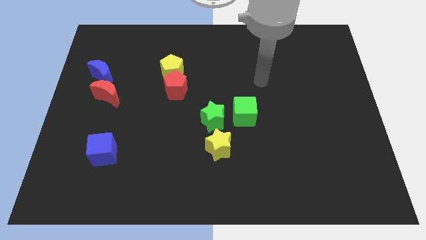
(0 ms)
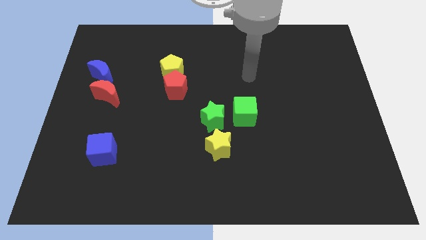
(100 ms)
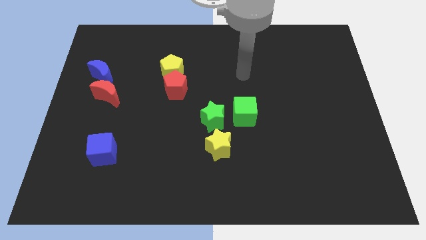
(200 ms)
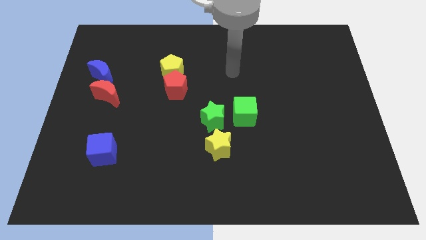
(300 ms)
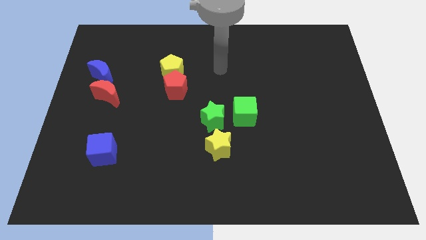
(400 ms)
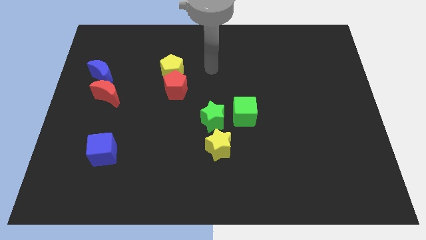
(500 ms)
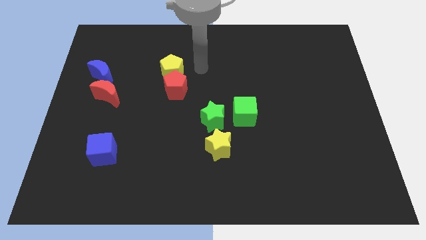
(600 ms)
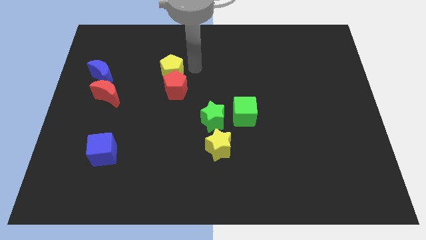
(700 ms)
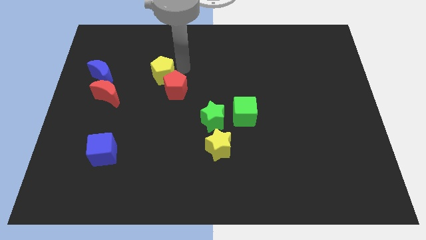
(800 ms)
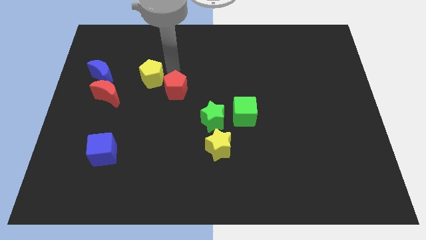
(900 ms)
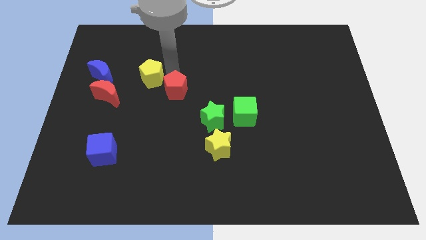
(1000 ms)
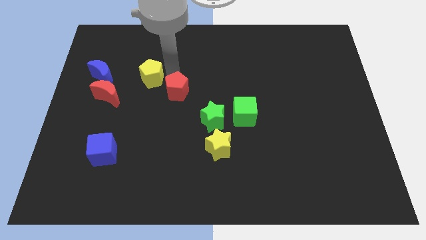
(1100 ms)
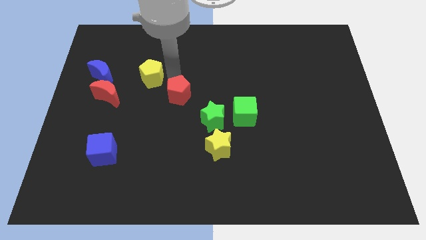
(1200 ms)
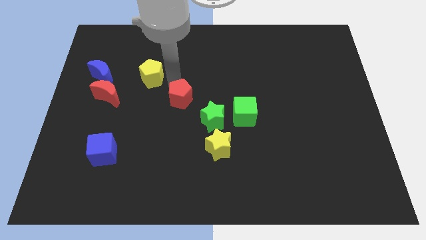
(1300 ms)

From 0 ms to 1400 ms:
move the red pentagon away from the yellow pentagon

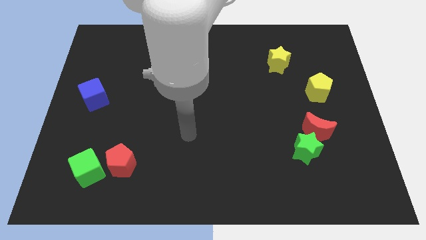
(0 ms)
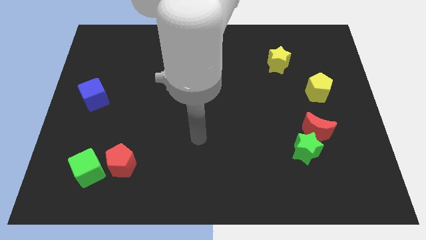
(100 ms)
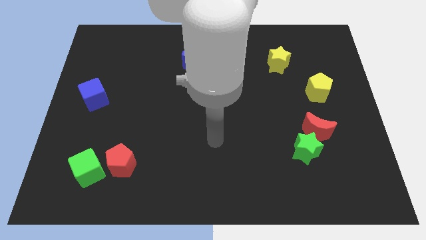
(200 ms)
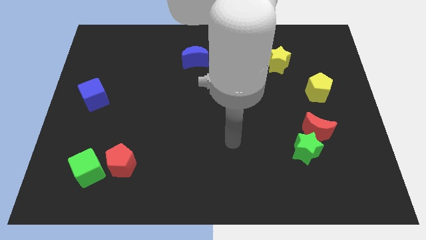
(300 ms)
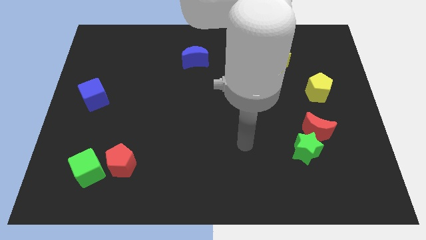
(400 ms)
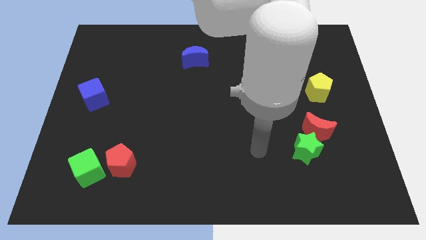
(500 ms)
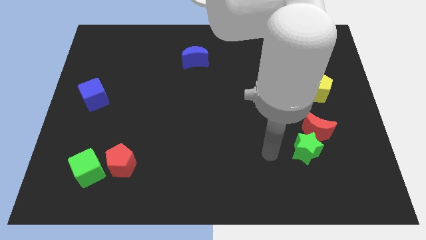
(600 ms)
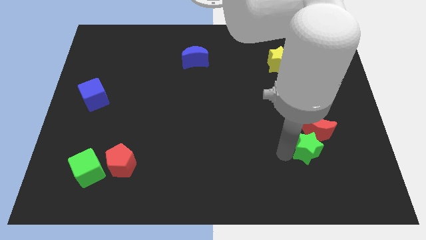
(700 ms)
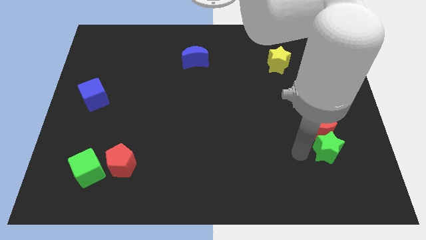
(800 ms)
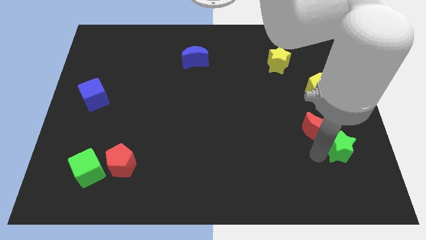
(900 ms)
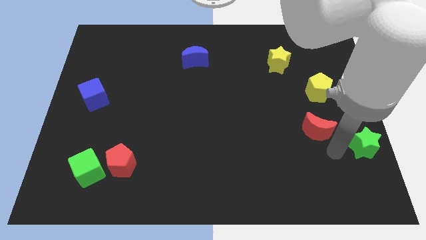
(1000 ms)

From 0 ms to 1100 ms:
separate the red moon from the green star

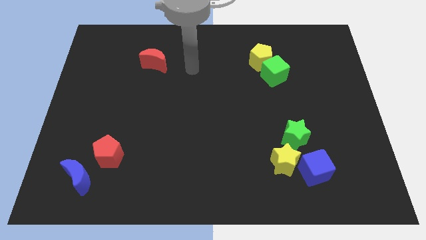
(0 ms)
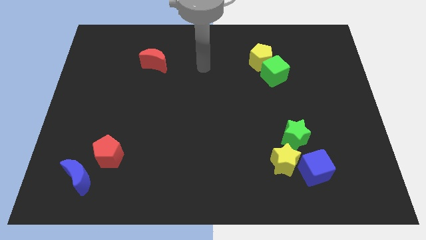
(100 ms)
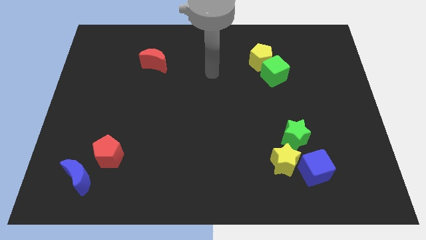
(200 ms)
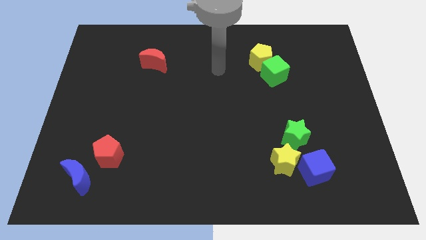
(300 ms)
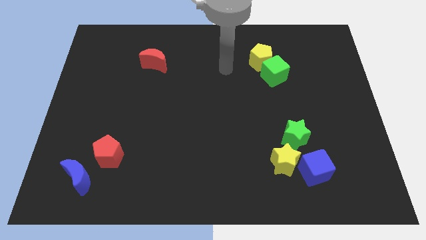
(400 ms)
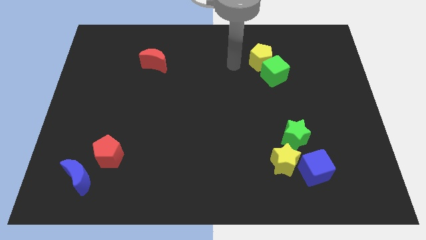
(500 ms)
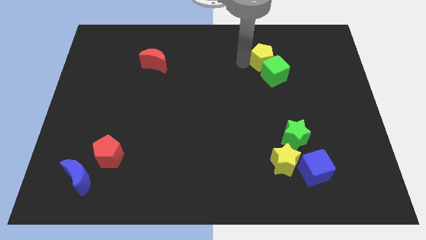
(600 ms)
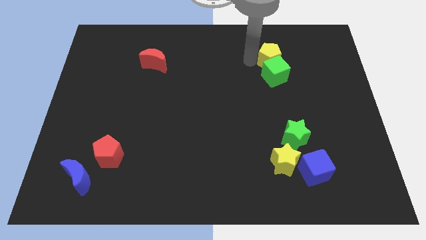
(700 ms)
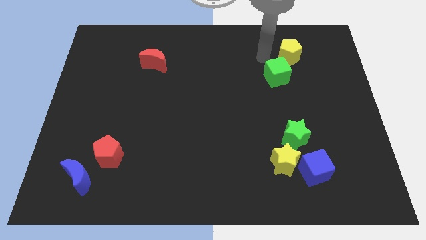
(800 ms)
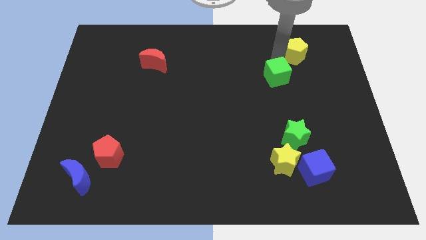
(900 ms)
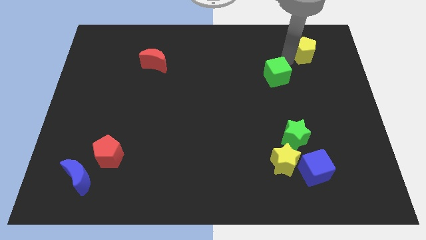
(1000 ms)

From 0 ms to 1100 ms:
pull the green cube apart from the yellow pentagon

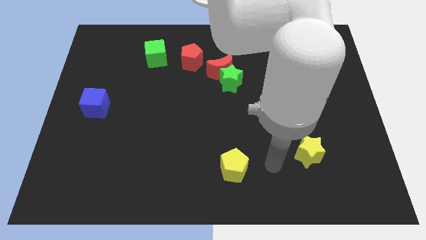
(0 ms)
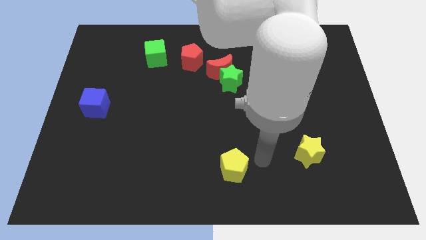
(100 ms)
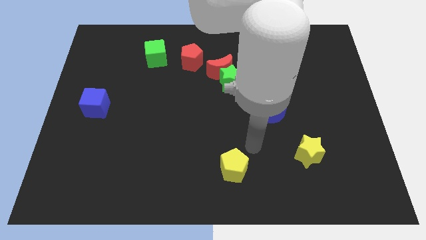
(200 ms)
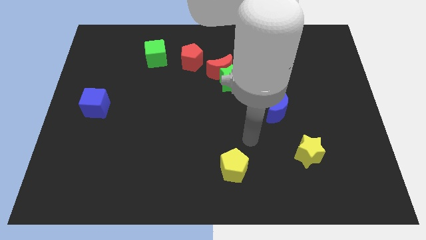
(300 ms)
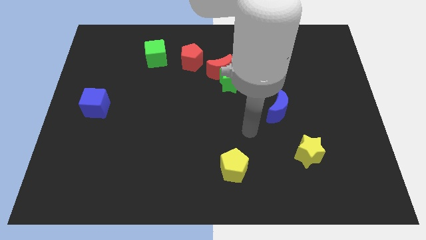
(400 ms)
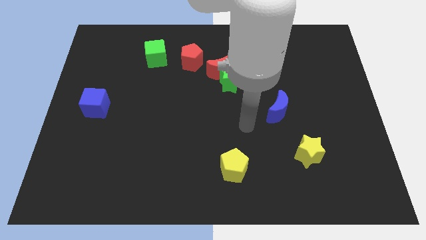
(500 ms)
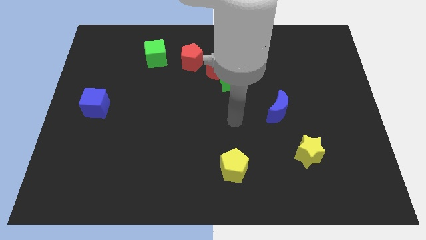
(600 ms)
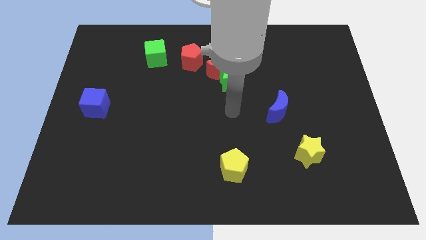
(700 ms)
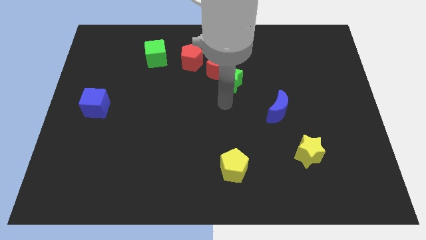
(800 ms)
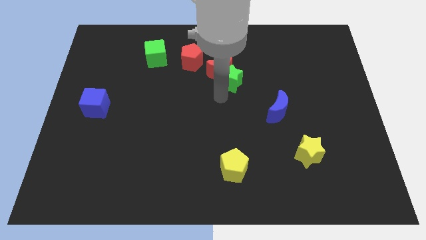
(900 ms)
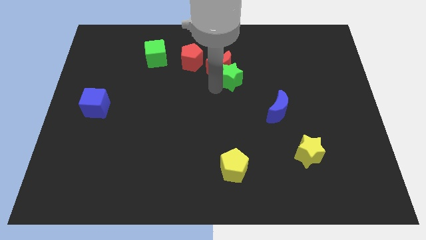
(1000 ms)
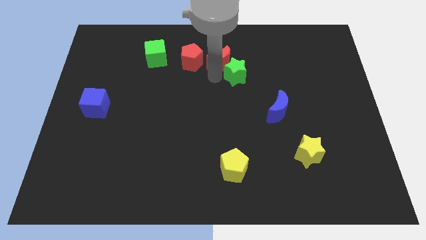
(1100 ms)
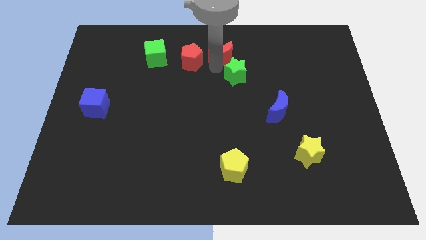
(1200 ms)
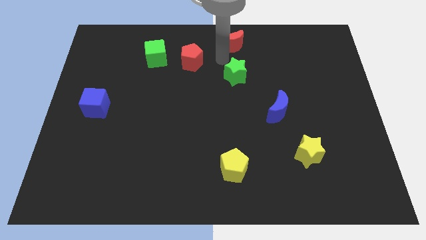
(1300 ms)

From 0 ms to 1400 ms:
pull the green star apart from the red moon

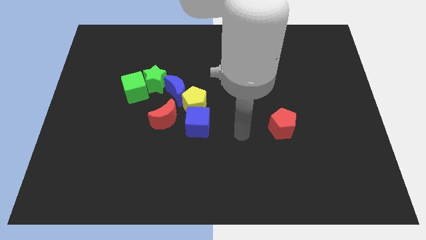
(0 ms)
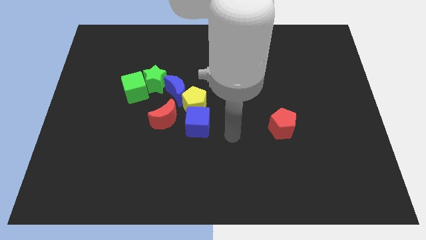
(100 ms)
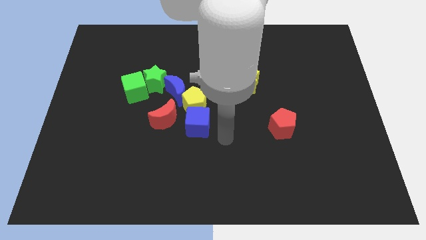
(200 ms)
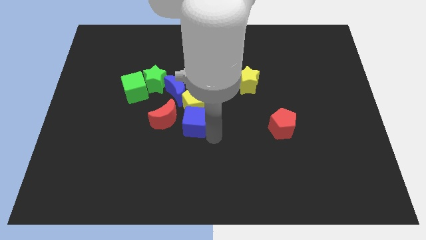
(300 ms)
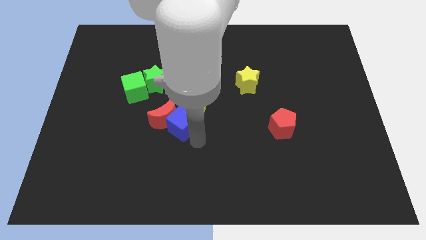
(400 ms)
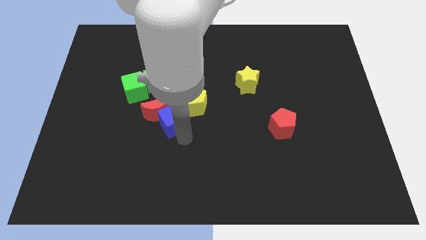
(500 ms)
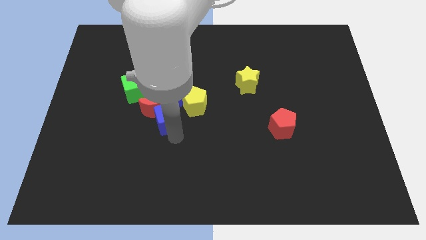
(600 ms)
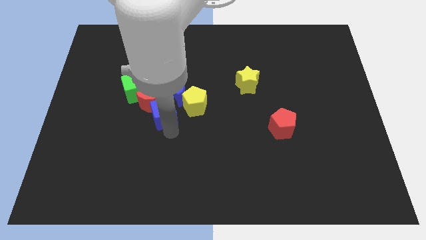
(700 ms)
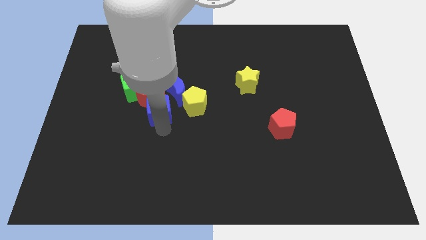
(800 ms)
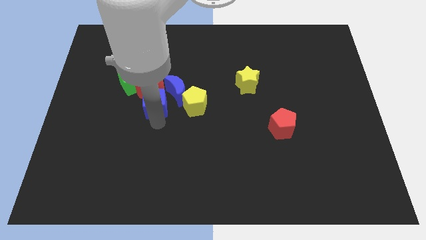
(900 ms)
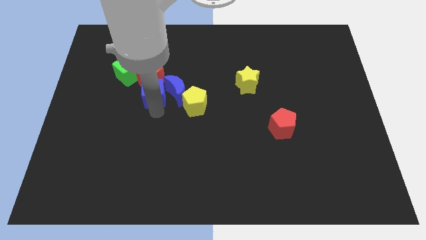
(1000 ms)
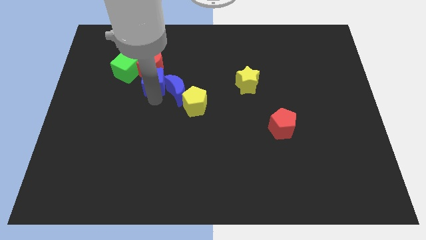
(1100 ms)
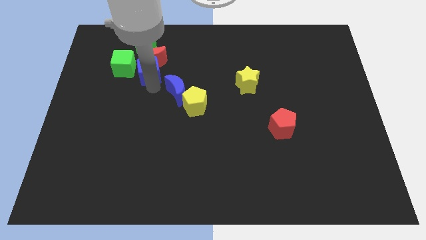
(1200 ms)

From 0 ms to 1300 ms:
move the green star away from the green cube and blue moon

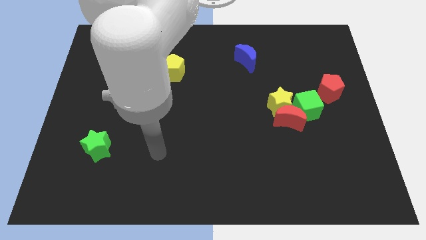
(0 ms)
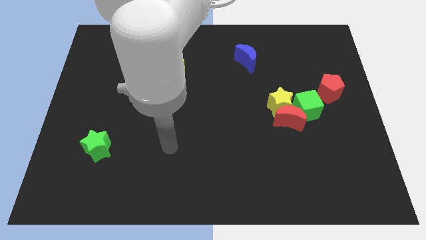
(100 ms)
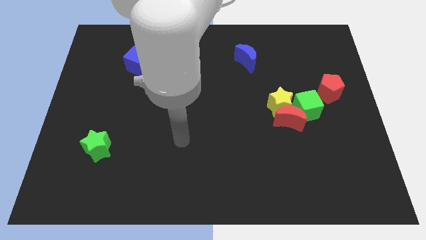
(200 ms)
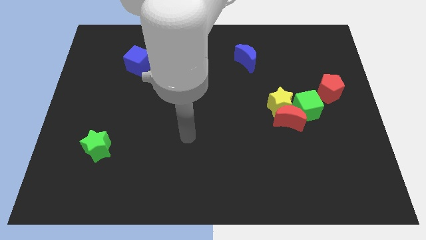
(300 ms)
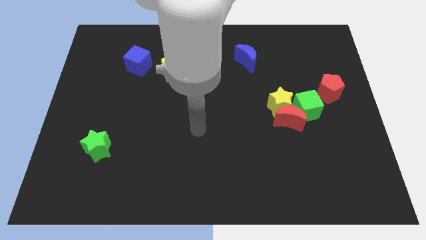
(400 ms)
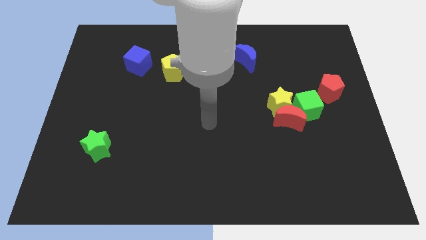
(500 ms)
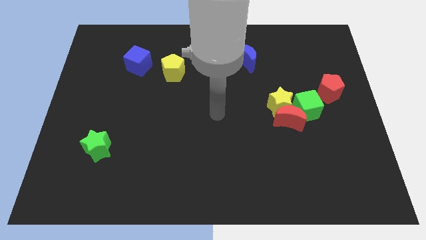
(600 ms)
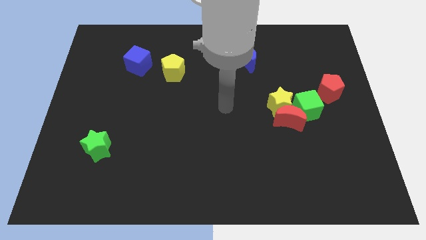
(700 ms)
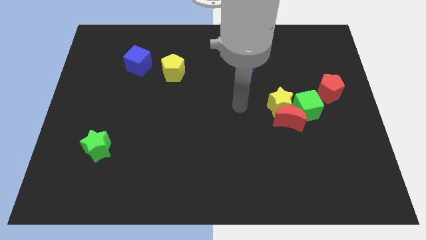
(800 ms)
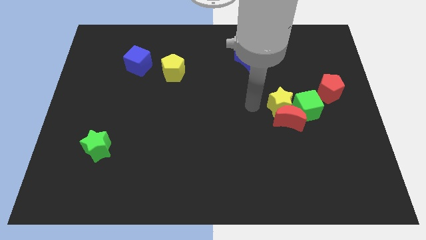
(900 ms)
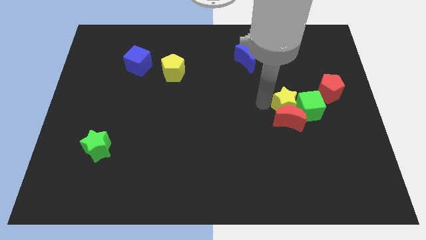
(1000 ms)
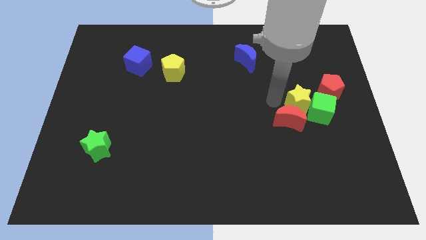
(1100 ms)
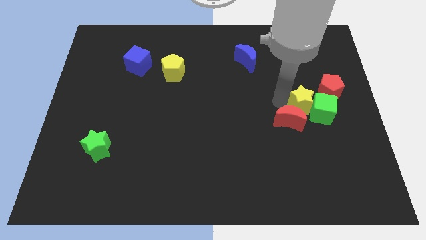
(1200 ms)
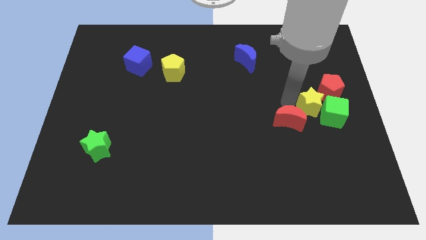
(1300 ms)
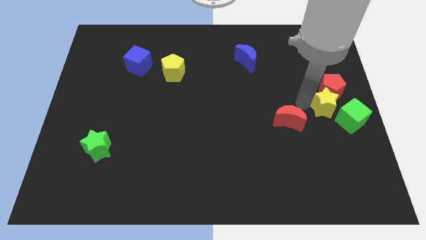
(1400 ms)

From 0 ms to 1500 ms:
move the red moon away from the yellow star and green cube

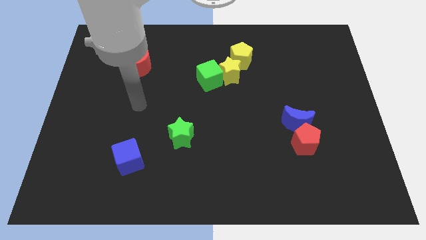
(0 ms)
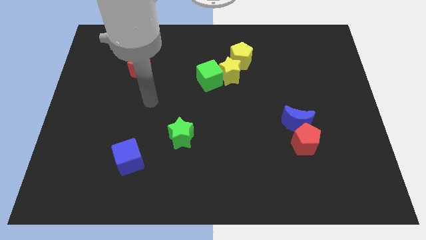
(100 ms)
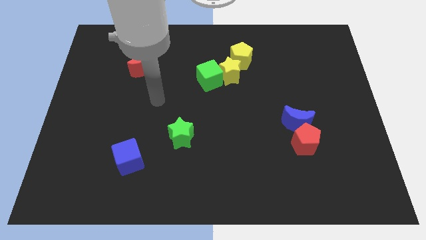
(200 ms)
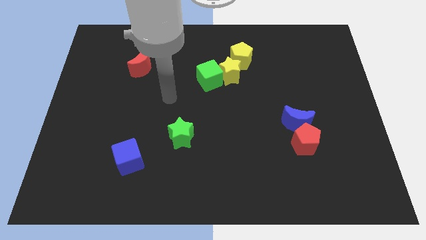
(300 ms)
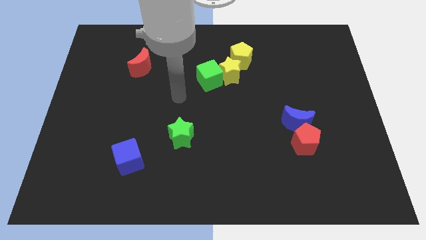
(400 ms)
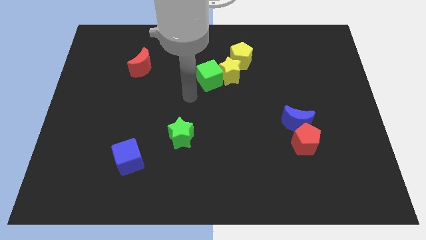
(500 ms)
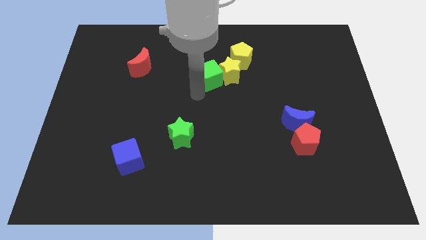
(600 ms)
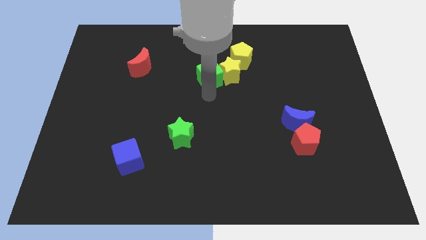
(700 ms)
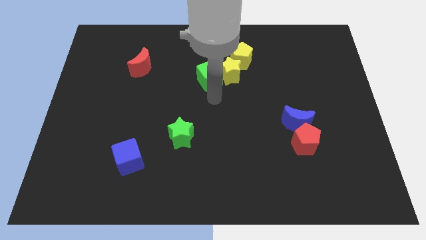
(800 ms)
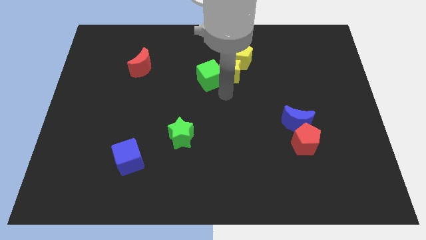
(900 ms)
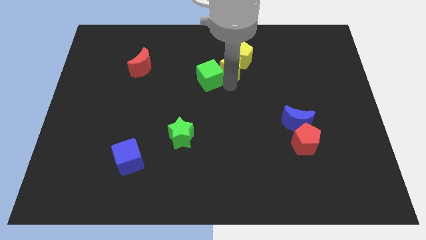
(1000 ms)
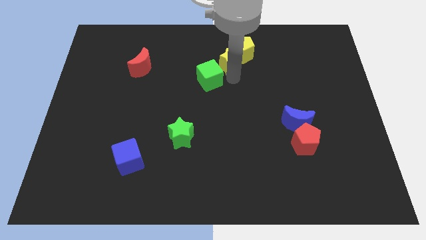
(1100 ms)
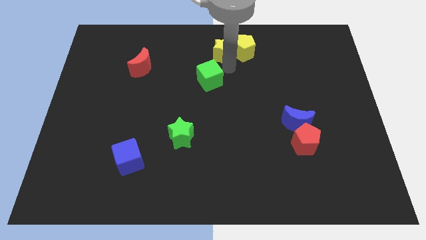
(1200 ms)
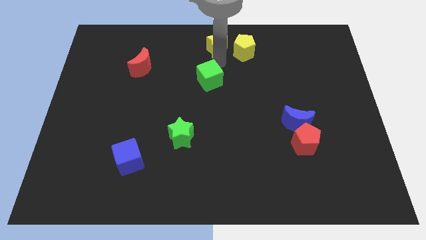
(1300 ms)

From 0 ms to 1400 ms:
pull the green cube apart from the yellow star
